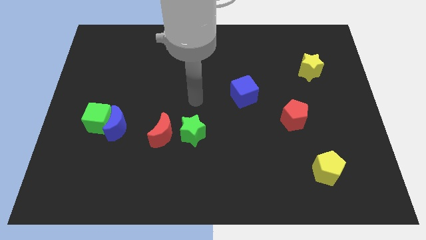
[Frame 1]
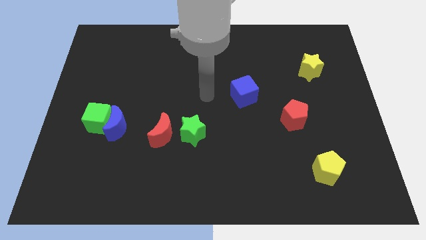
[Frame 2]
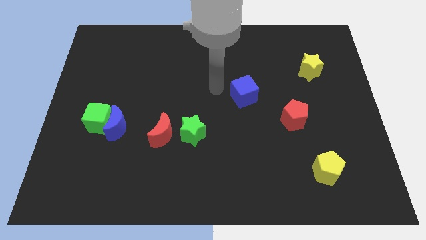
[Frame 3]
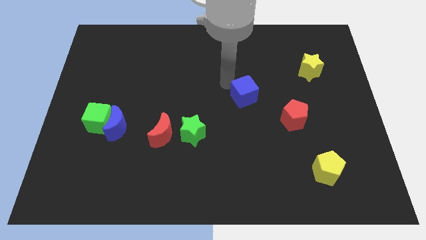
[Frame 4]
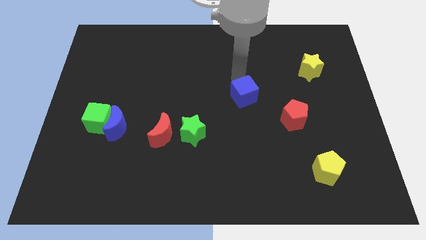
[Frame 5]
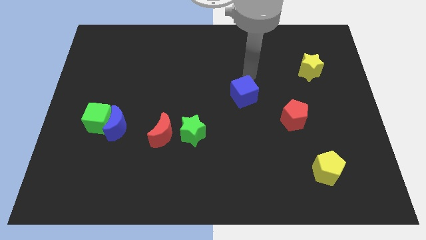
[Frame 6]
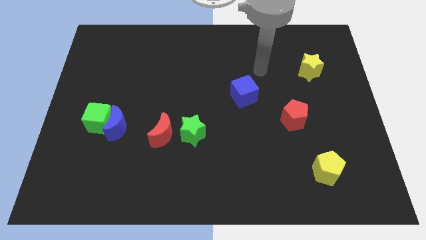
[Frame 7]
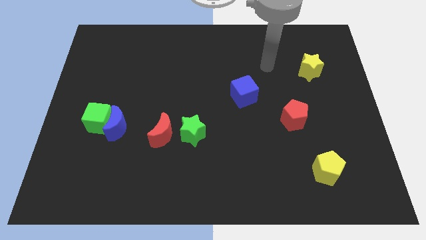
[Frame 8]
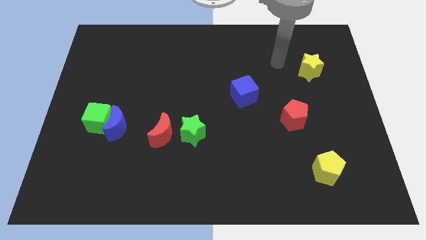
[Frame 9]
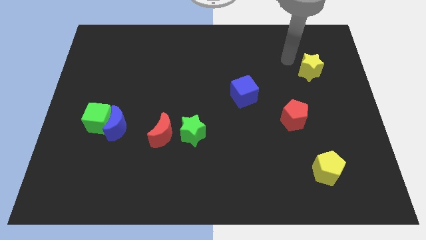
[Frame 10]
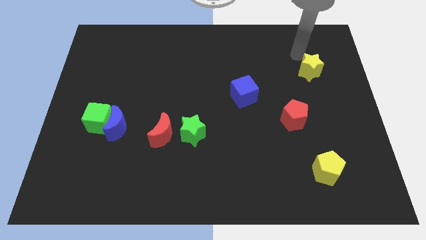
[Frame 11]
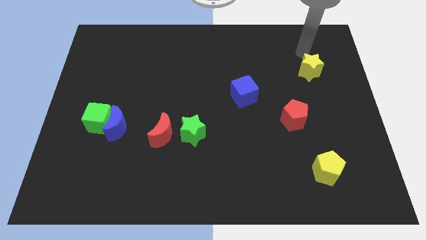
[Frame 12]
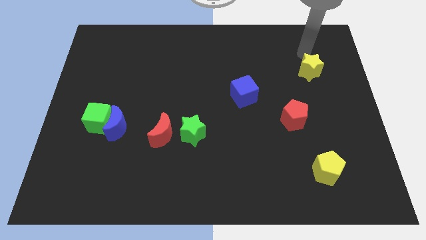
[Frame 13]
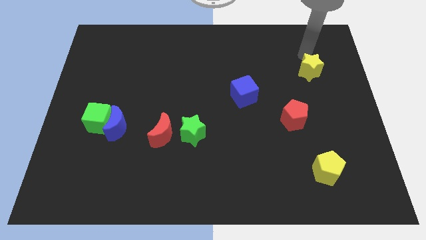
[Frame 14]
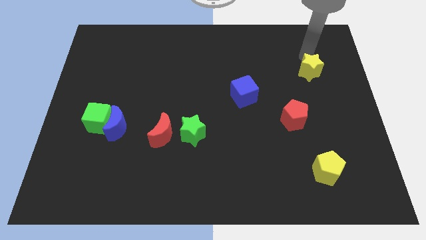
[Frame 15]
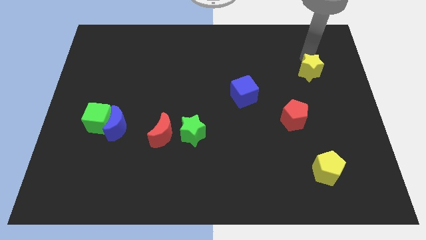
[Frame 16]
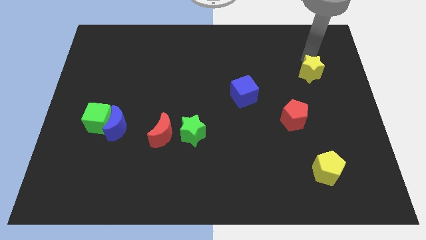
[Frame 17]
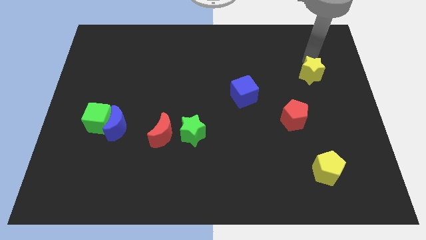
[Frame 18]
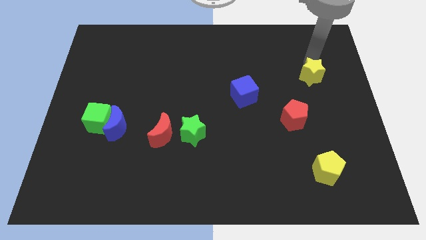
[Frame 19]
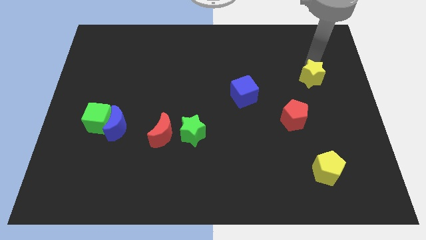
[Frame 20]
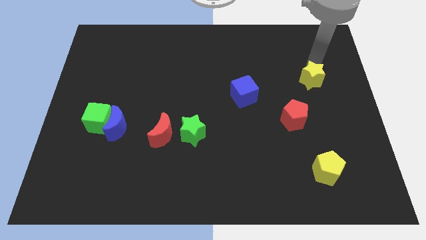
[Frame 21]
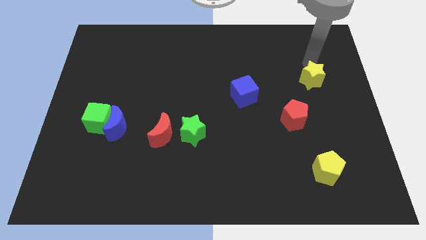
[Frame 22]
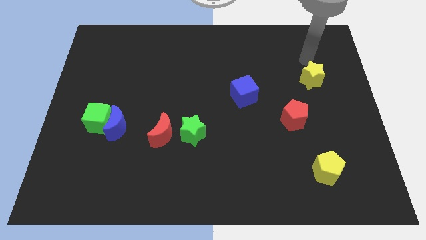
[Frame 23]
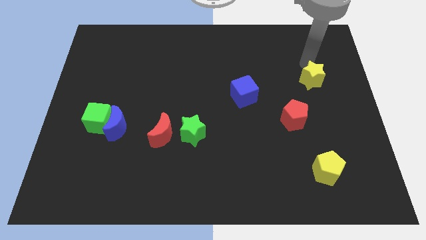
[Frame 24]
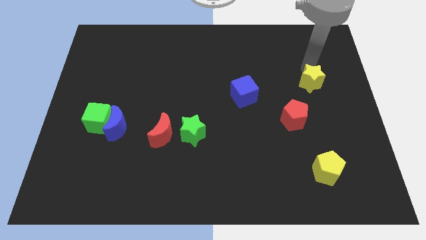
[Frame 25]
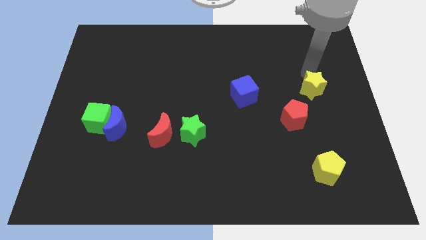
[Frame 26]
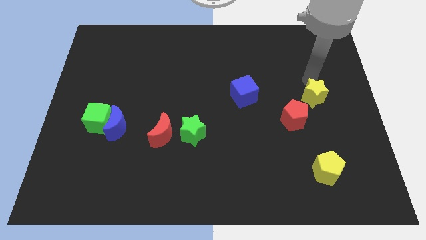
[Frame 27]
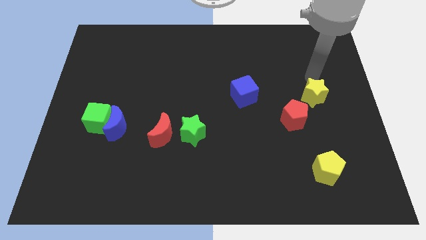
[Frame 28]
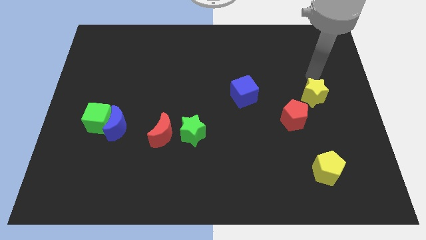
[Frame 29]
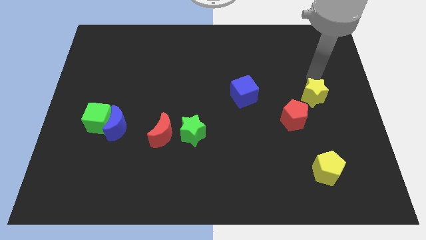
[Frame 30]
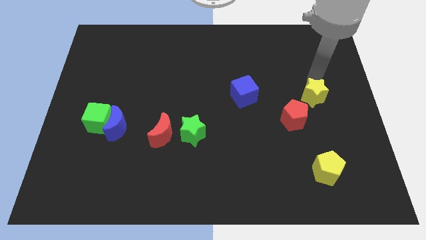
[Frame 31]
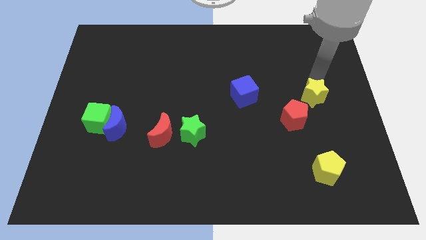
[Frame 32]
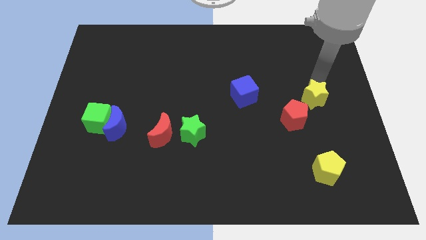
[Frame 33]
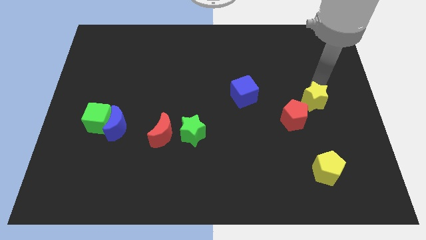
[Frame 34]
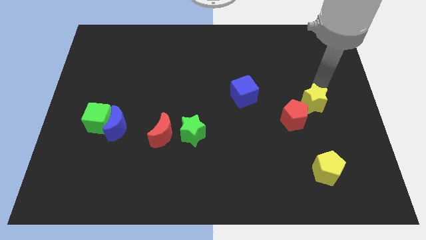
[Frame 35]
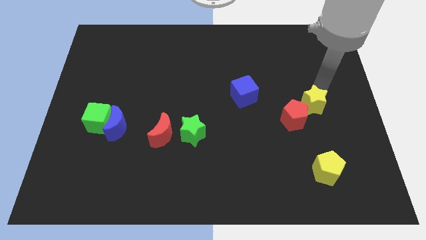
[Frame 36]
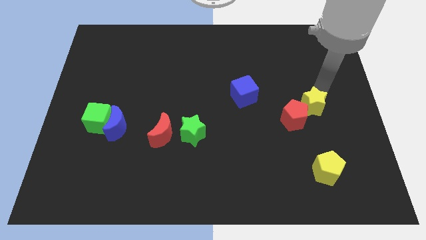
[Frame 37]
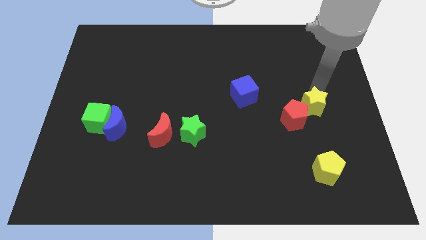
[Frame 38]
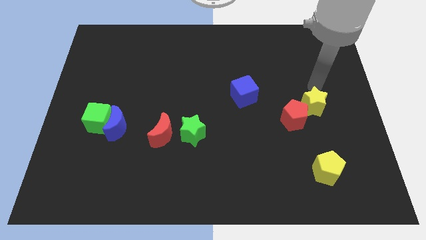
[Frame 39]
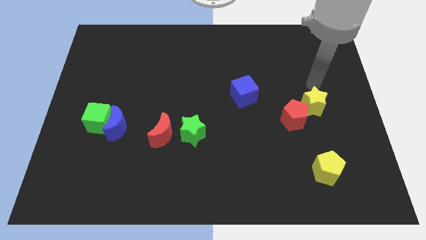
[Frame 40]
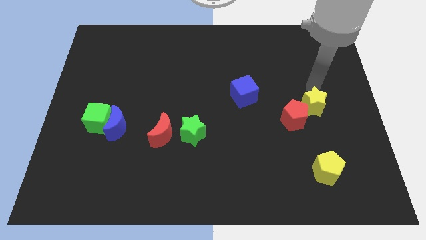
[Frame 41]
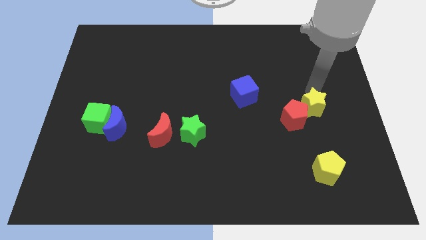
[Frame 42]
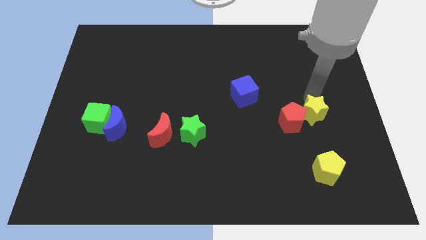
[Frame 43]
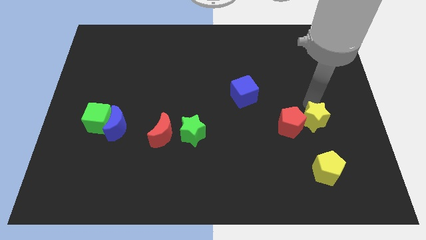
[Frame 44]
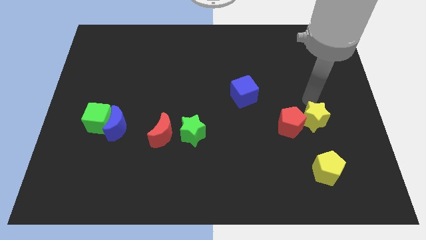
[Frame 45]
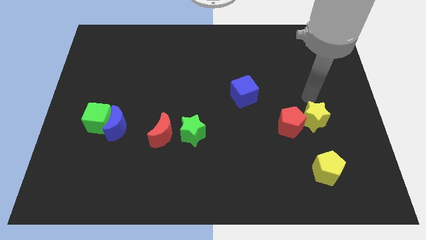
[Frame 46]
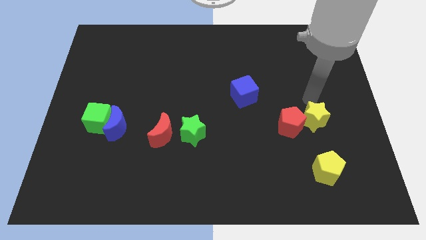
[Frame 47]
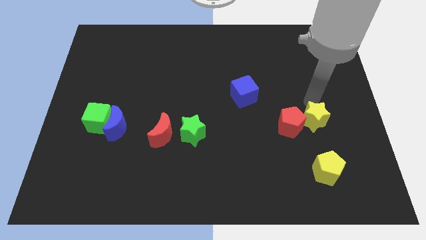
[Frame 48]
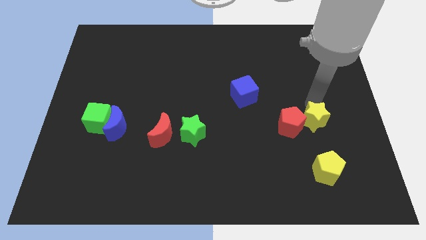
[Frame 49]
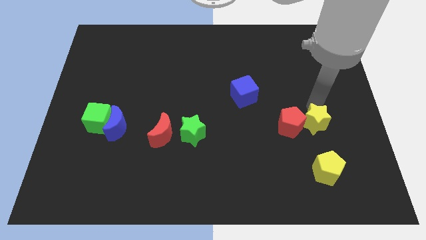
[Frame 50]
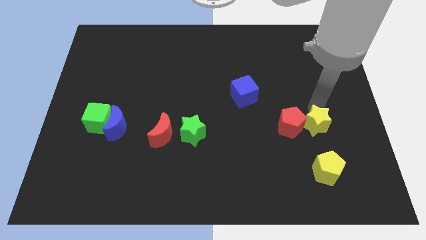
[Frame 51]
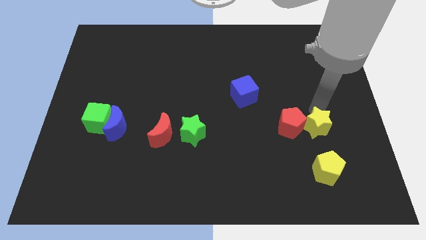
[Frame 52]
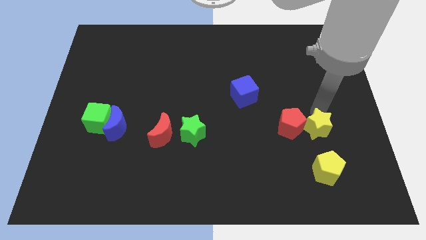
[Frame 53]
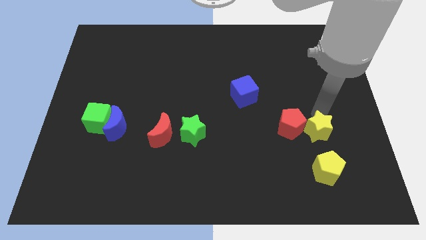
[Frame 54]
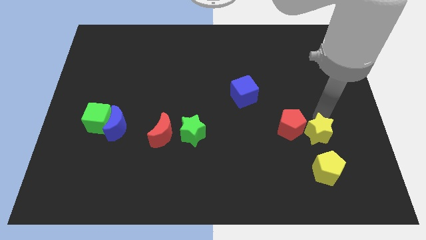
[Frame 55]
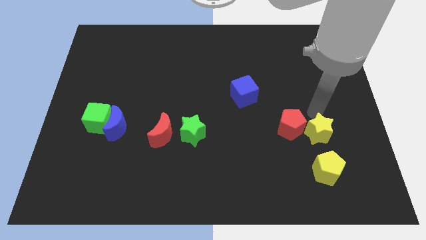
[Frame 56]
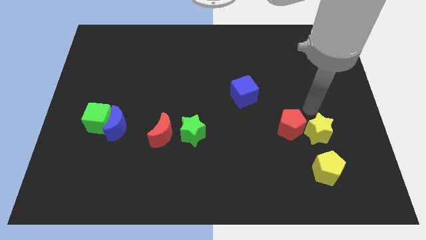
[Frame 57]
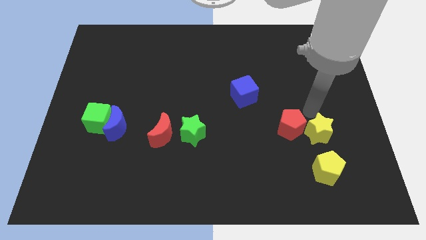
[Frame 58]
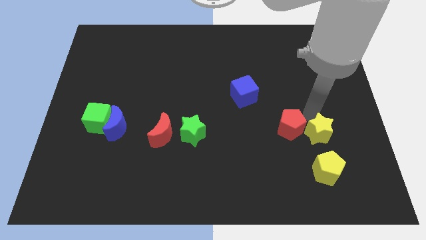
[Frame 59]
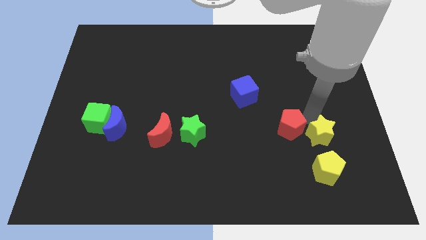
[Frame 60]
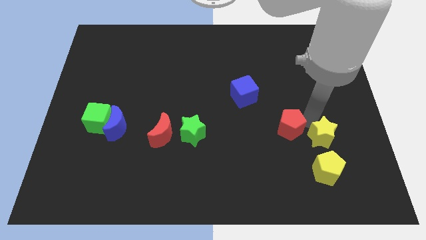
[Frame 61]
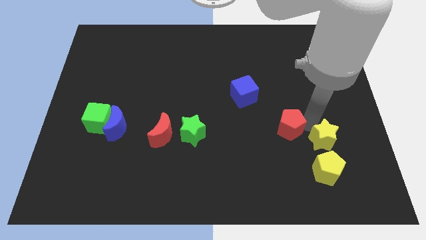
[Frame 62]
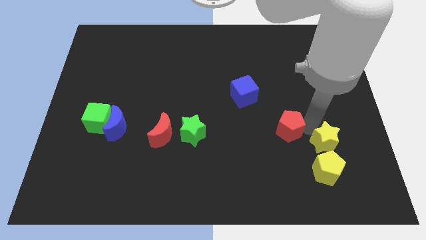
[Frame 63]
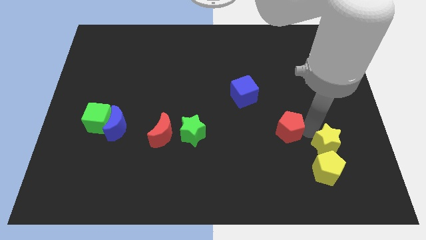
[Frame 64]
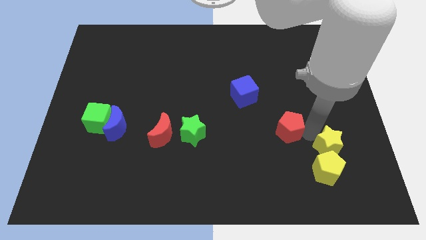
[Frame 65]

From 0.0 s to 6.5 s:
push the yellow star close to the yellow pentagon
